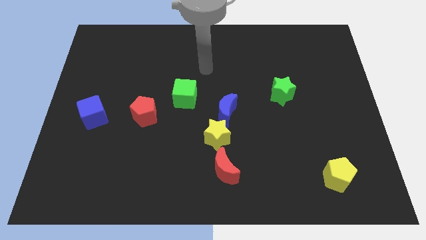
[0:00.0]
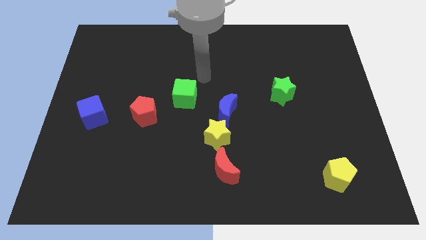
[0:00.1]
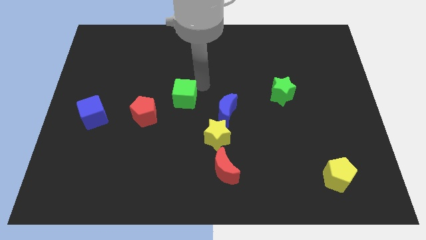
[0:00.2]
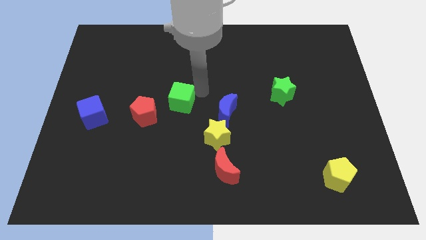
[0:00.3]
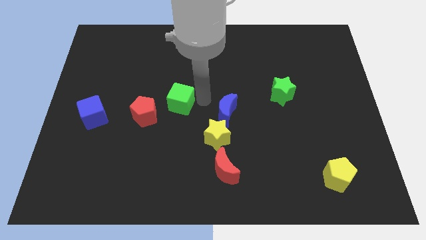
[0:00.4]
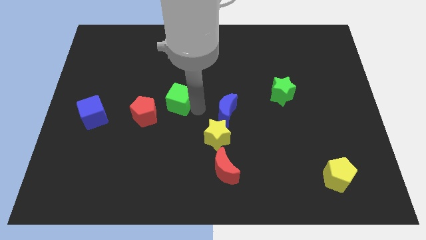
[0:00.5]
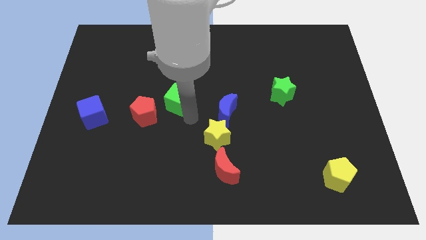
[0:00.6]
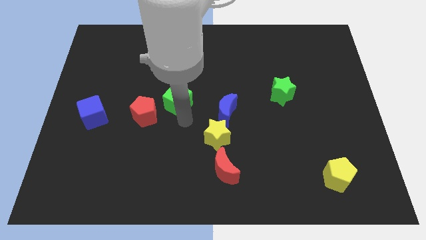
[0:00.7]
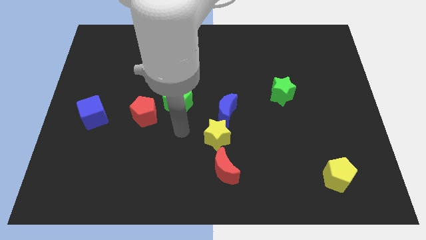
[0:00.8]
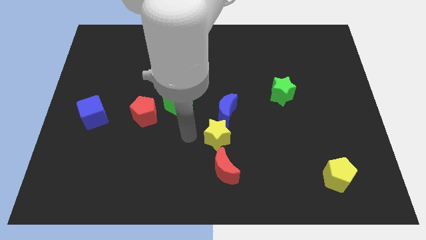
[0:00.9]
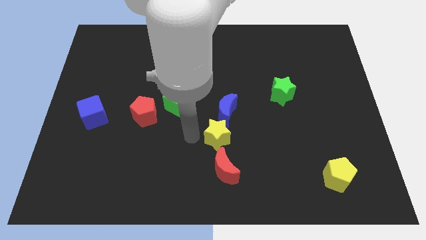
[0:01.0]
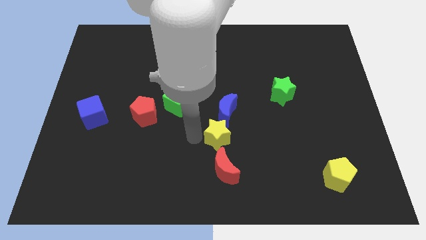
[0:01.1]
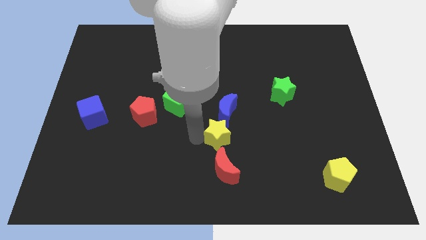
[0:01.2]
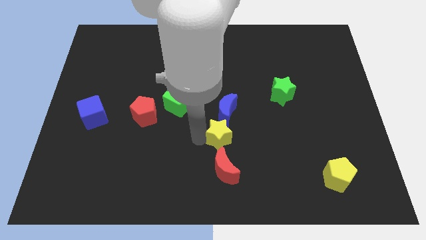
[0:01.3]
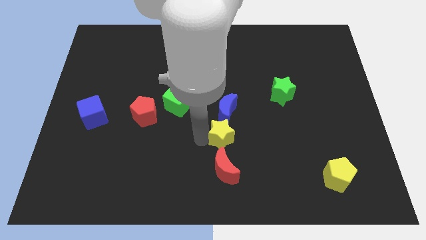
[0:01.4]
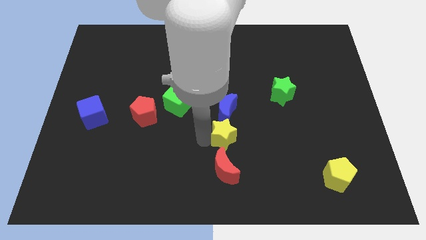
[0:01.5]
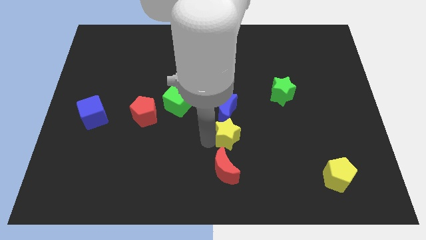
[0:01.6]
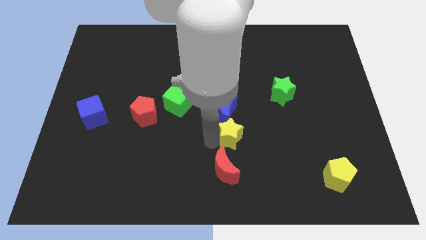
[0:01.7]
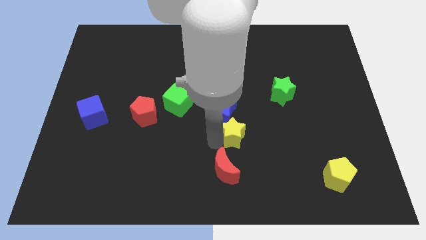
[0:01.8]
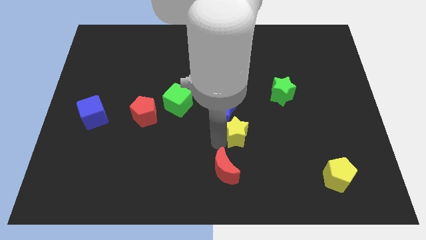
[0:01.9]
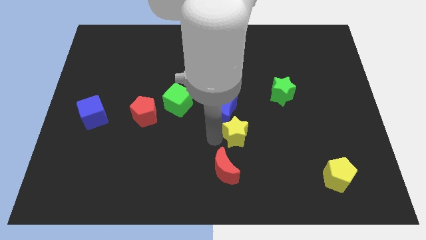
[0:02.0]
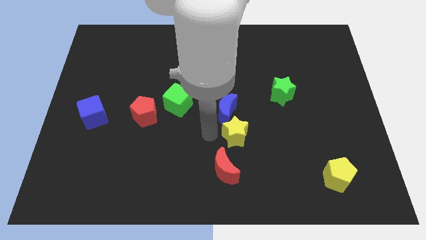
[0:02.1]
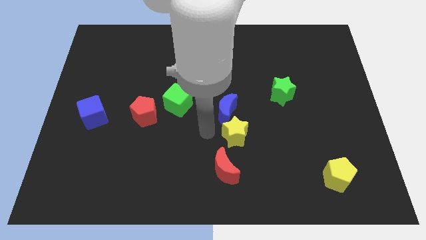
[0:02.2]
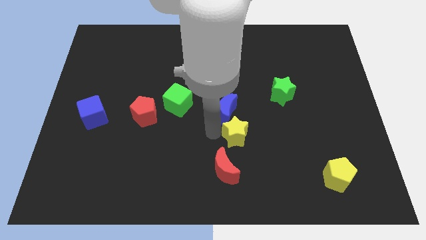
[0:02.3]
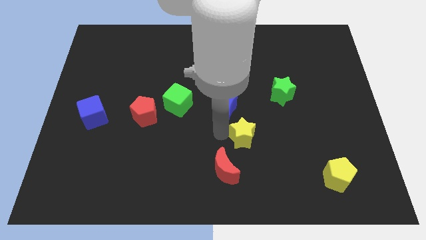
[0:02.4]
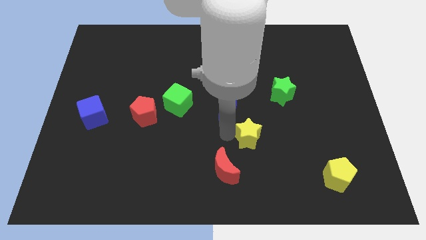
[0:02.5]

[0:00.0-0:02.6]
push the yellow star slightly to the right

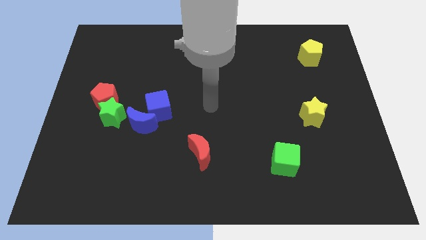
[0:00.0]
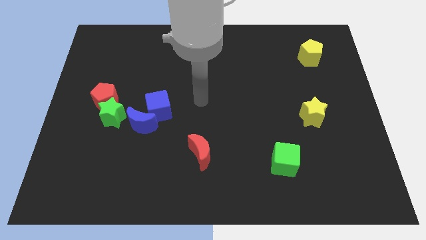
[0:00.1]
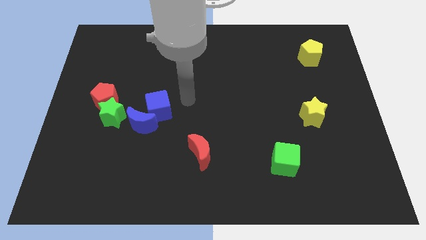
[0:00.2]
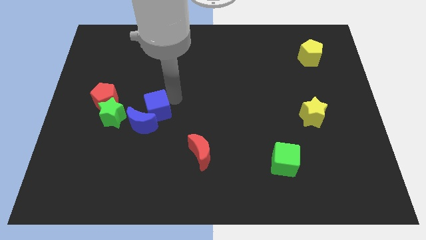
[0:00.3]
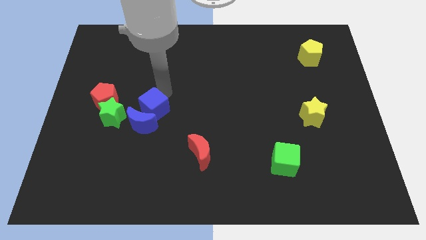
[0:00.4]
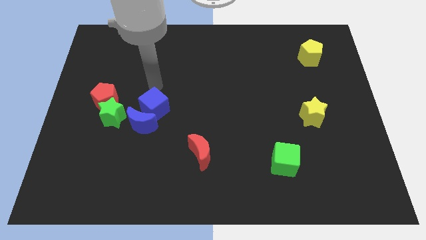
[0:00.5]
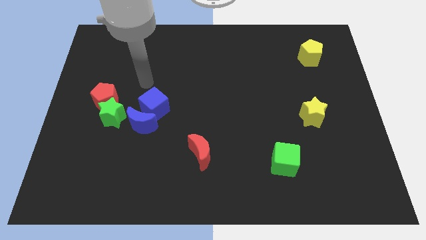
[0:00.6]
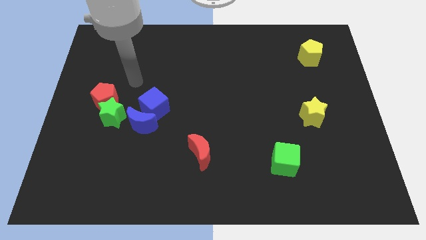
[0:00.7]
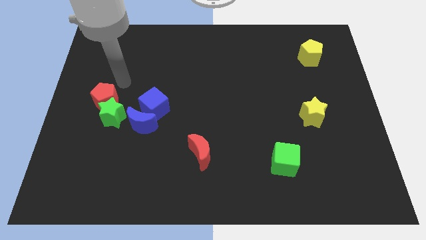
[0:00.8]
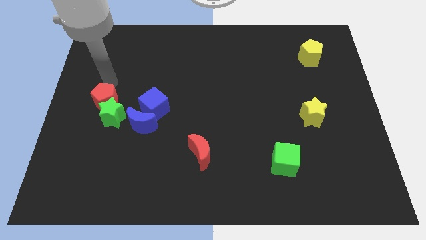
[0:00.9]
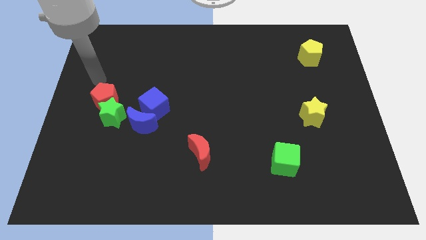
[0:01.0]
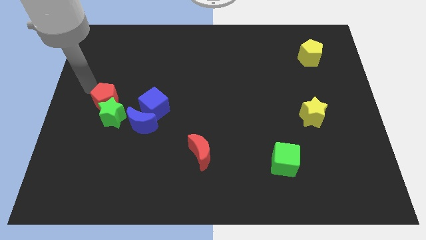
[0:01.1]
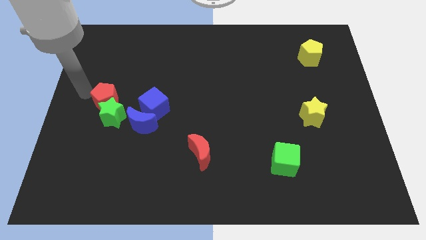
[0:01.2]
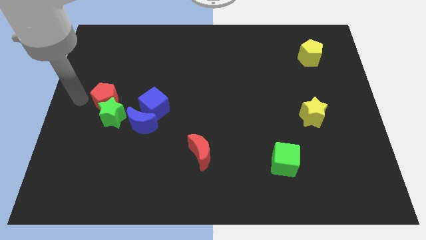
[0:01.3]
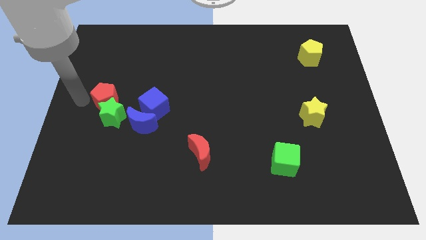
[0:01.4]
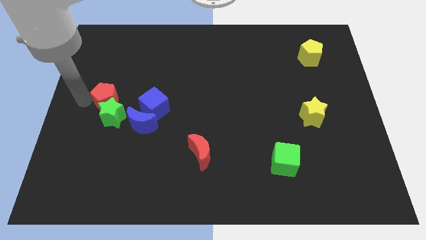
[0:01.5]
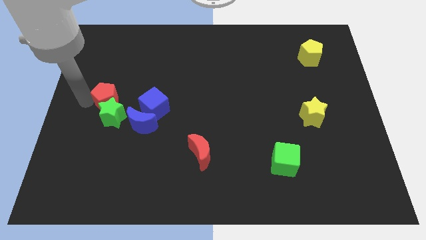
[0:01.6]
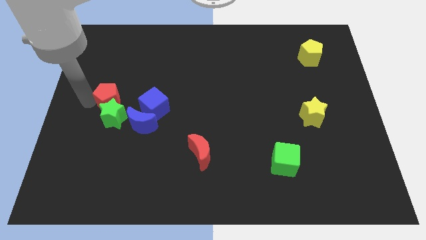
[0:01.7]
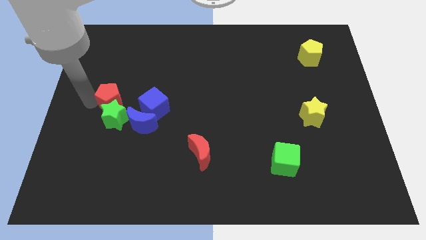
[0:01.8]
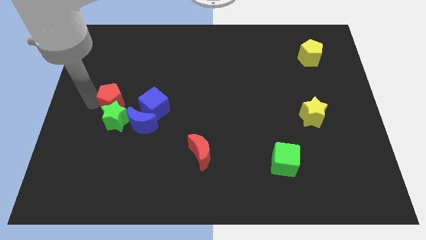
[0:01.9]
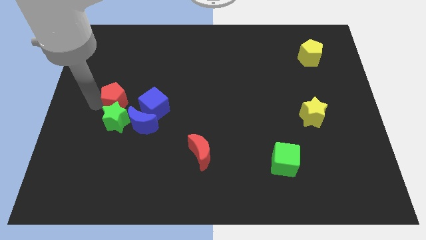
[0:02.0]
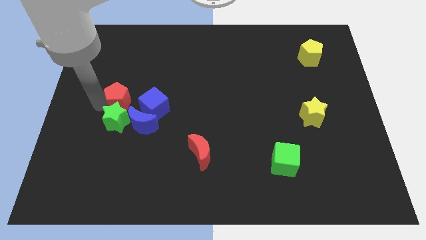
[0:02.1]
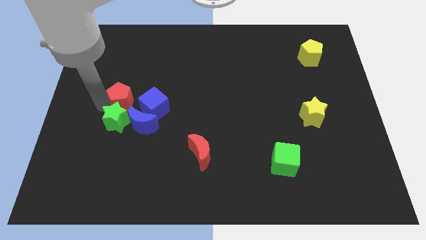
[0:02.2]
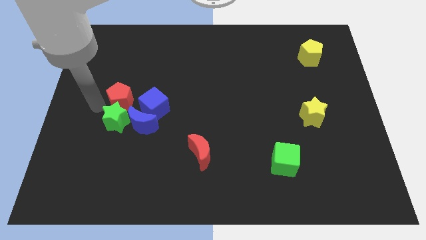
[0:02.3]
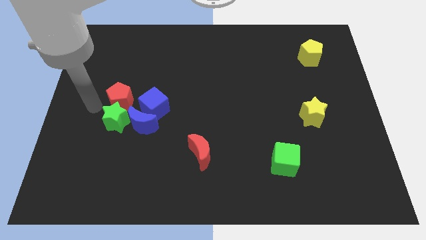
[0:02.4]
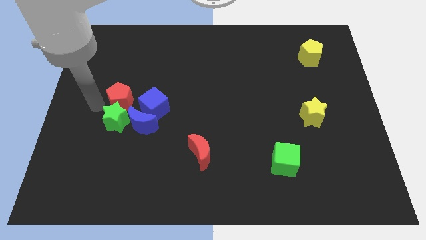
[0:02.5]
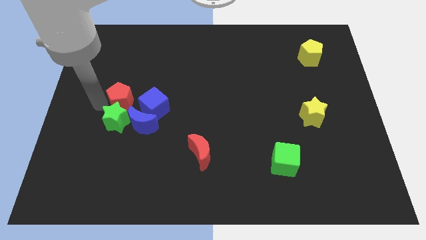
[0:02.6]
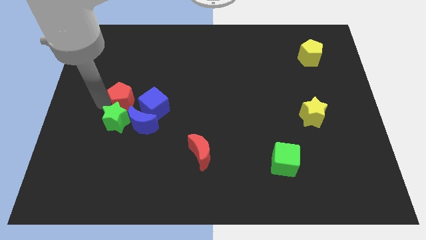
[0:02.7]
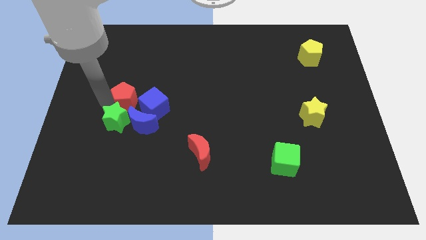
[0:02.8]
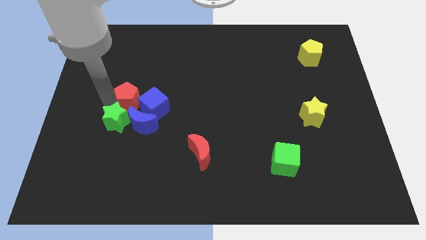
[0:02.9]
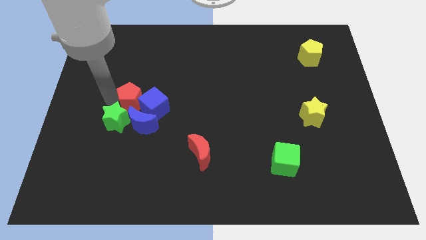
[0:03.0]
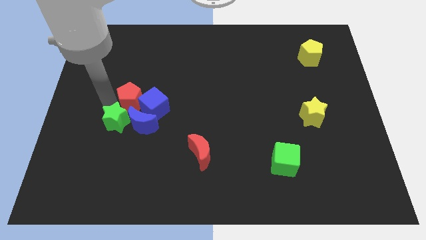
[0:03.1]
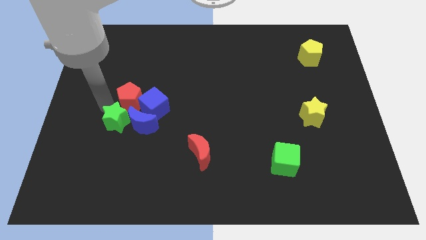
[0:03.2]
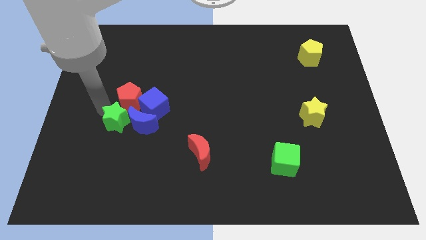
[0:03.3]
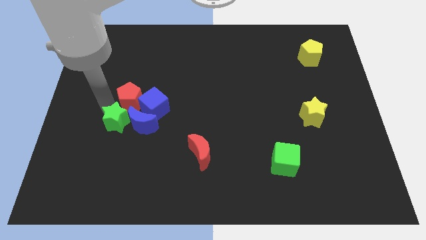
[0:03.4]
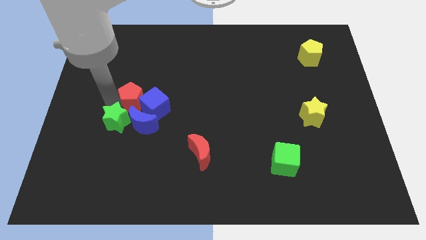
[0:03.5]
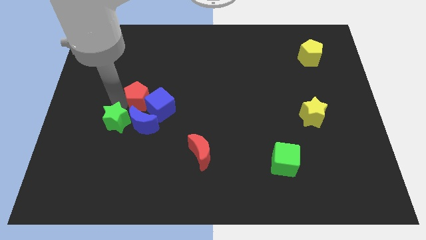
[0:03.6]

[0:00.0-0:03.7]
slightly push the red pentagon to the right

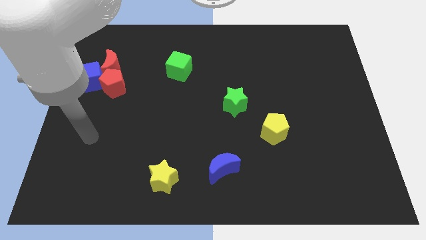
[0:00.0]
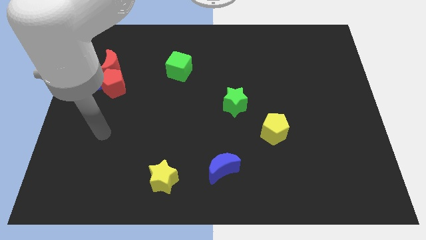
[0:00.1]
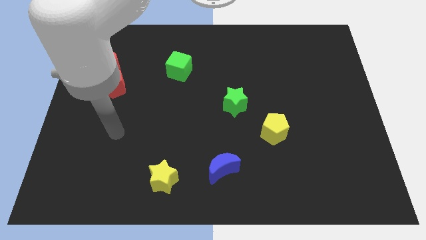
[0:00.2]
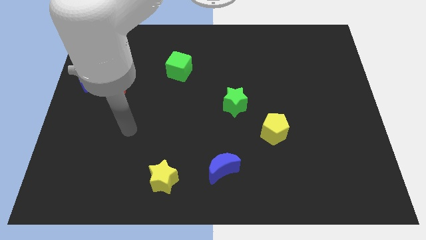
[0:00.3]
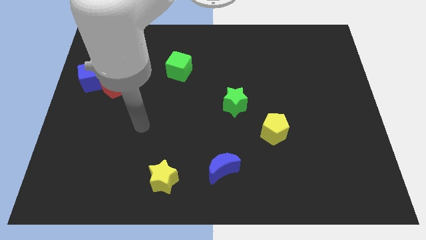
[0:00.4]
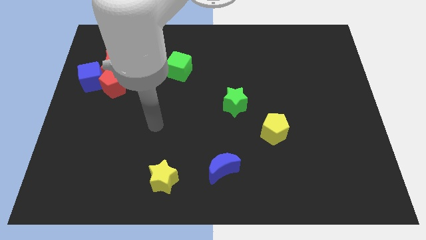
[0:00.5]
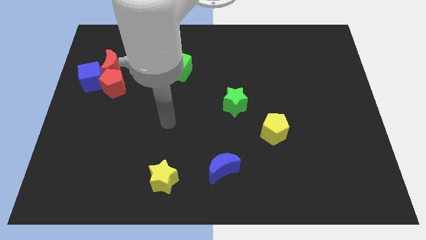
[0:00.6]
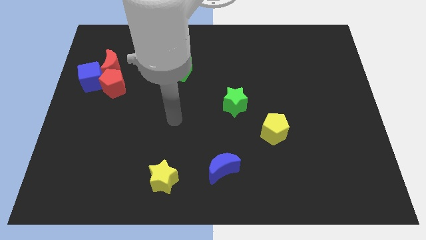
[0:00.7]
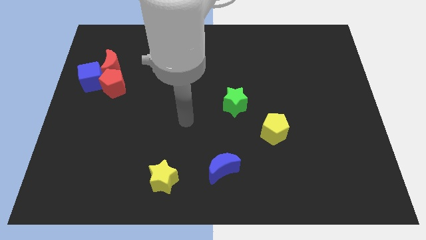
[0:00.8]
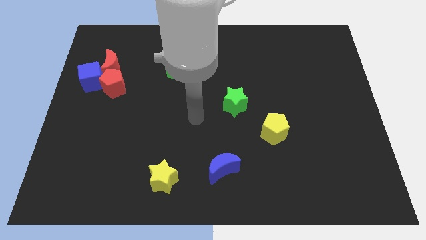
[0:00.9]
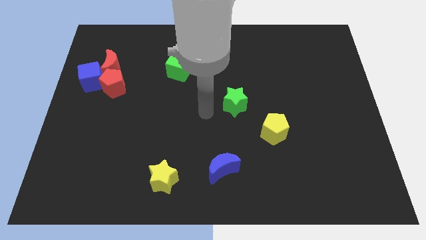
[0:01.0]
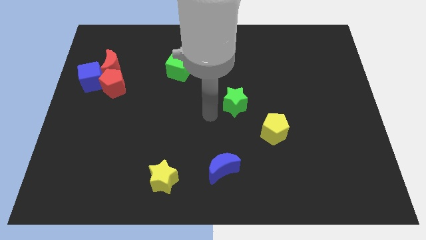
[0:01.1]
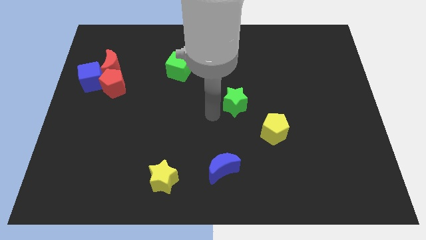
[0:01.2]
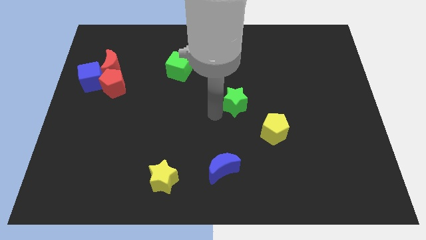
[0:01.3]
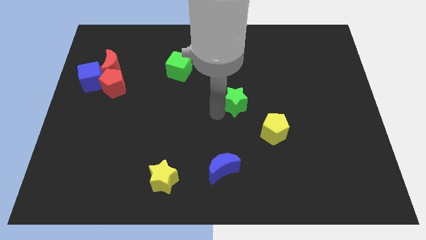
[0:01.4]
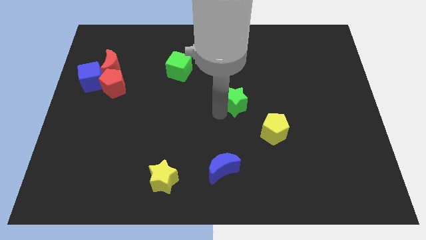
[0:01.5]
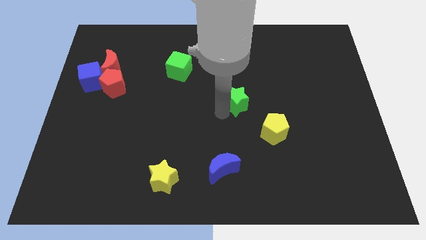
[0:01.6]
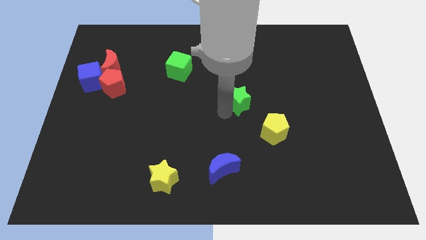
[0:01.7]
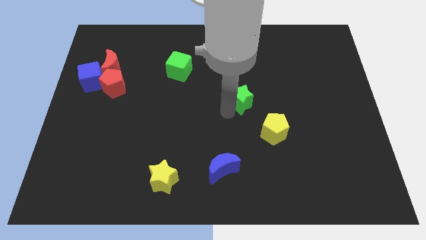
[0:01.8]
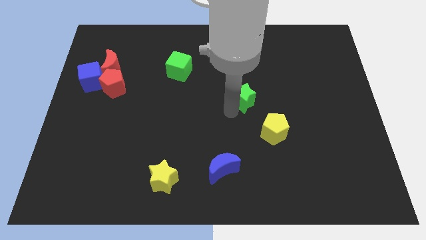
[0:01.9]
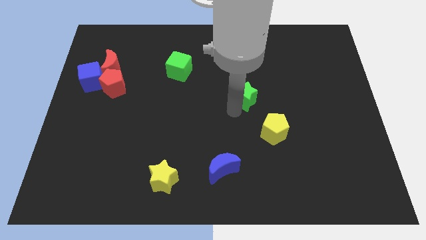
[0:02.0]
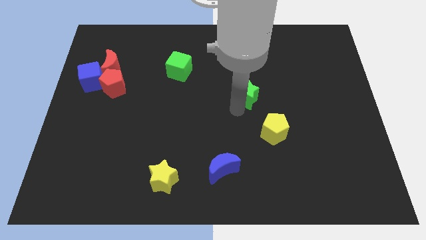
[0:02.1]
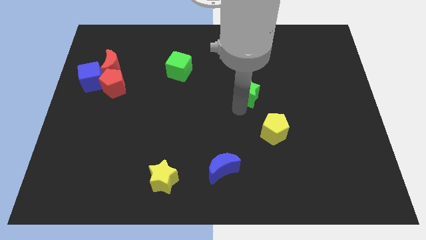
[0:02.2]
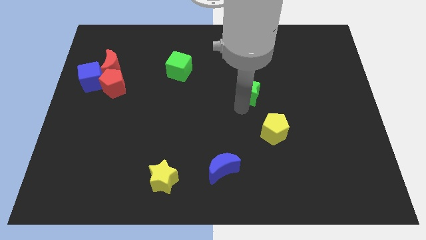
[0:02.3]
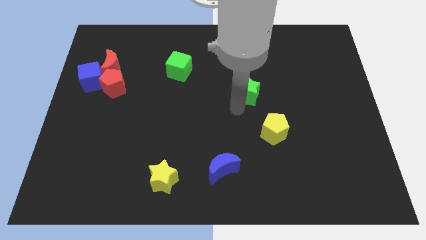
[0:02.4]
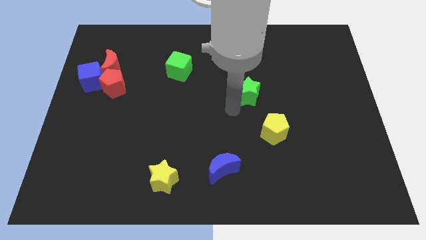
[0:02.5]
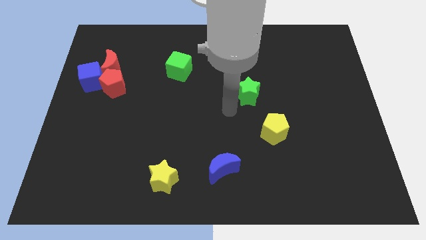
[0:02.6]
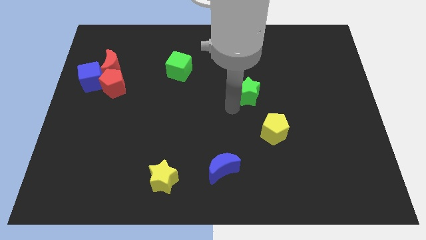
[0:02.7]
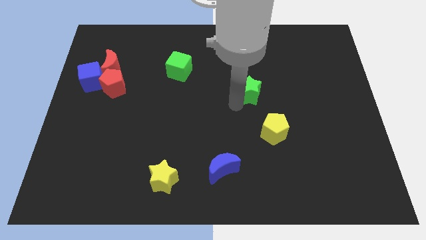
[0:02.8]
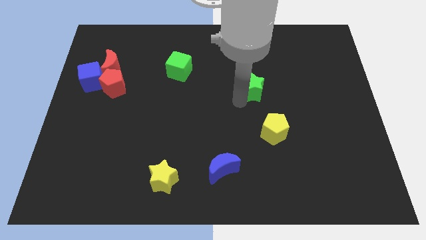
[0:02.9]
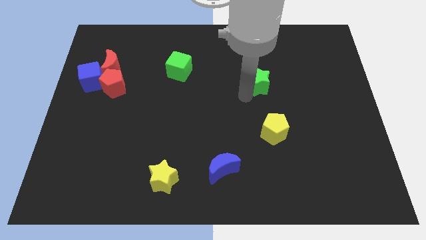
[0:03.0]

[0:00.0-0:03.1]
slightly push the green star diagonally up and right
